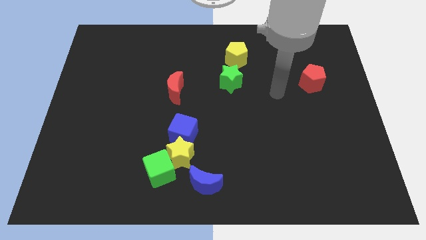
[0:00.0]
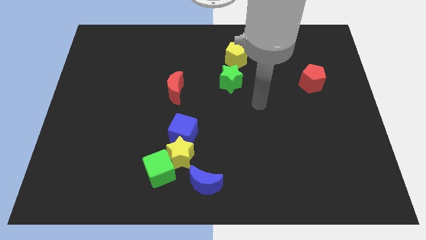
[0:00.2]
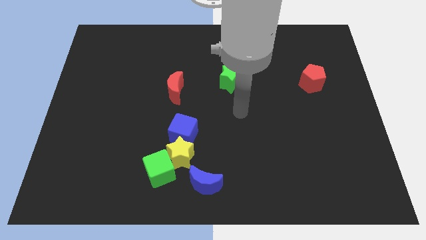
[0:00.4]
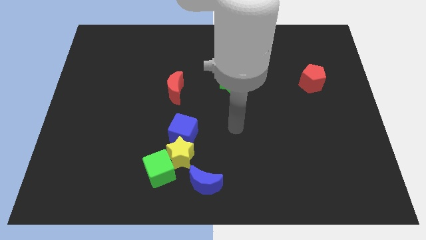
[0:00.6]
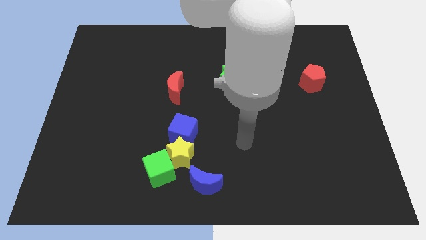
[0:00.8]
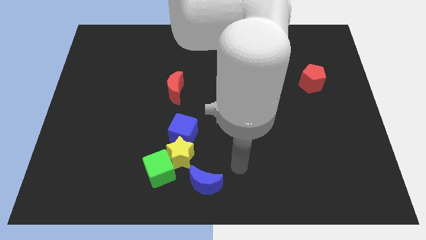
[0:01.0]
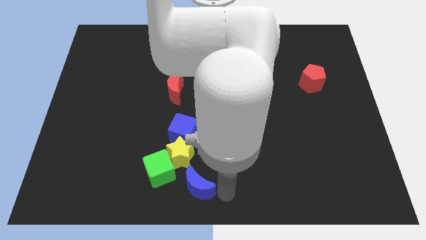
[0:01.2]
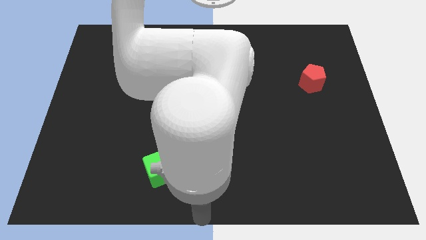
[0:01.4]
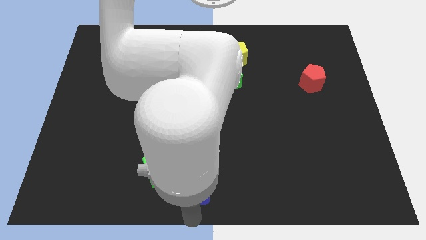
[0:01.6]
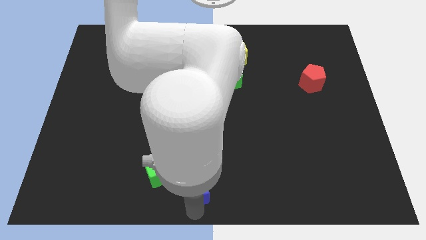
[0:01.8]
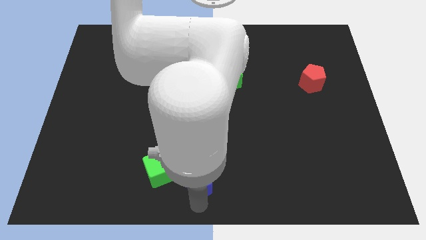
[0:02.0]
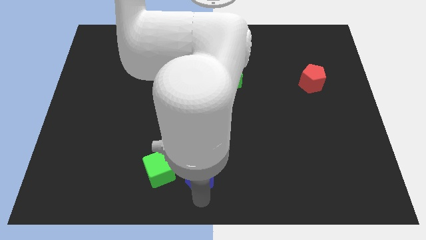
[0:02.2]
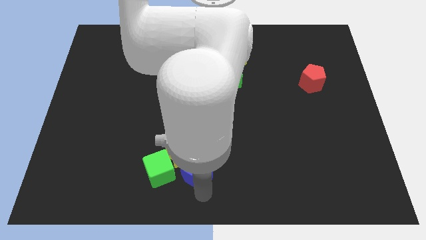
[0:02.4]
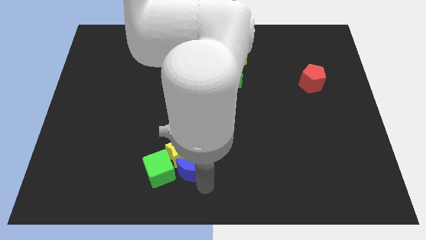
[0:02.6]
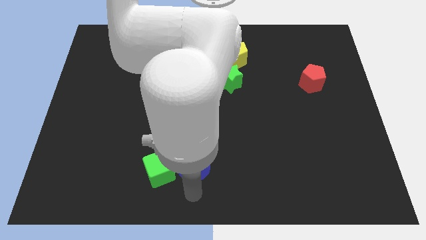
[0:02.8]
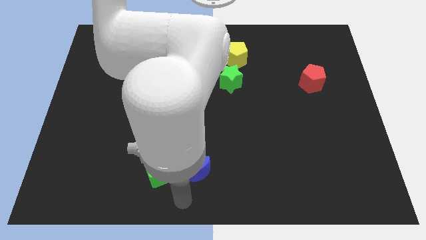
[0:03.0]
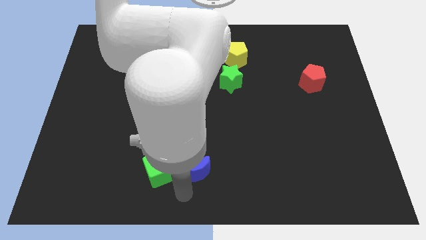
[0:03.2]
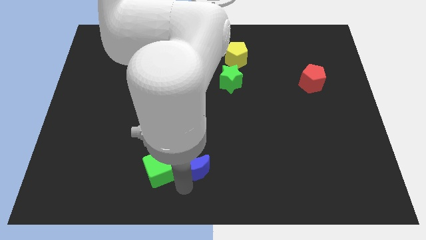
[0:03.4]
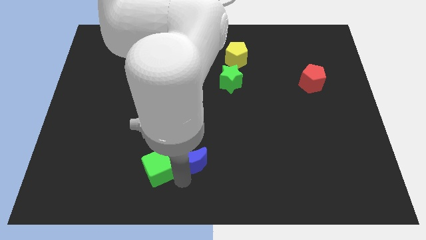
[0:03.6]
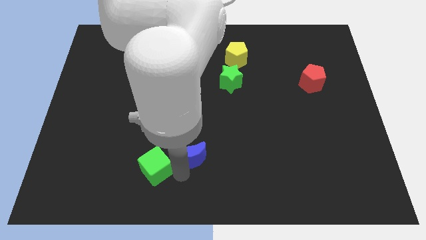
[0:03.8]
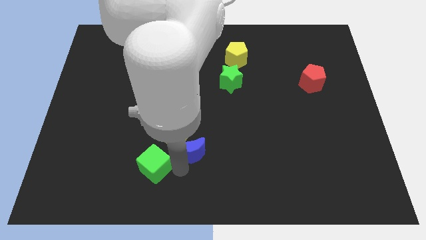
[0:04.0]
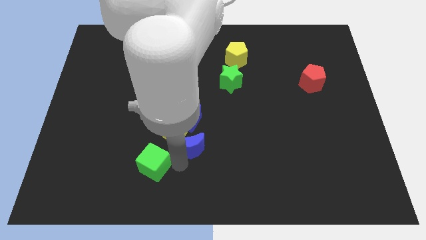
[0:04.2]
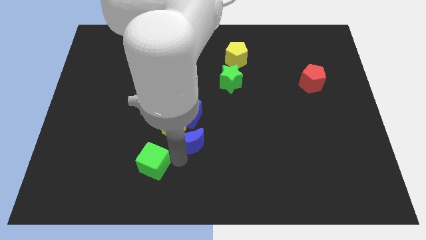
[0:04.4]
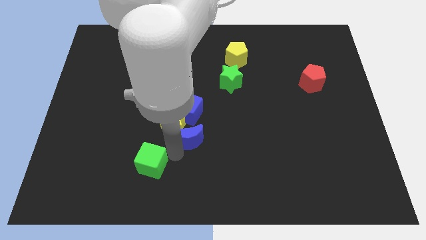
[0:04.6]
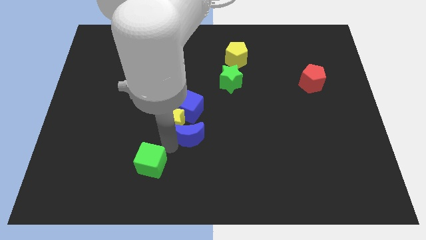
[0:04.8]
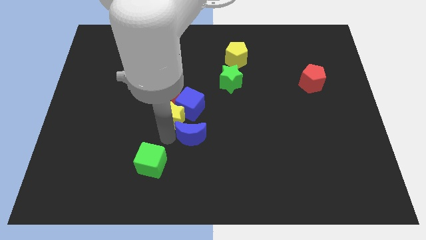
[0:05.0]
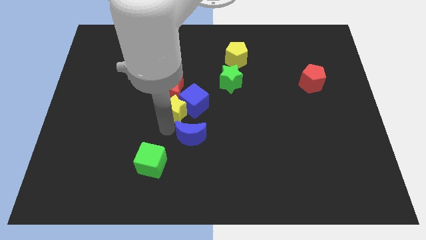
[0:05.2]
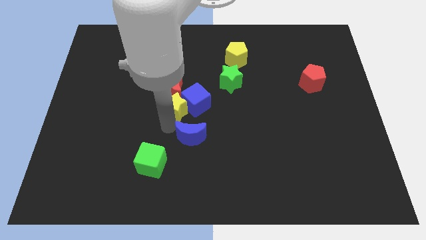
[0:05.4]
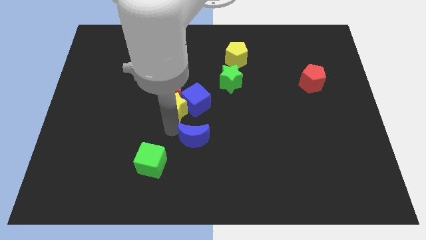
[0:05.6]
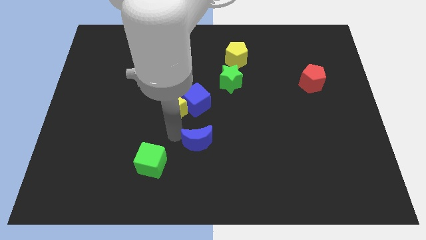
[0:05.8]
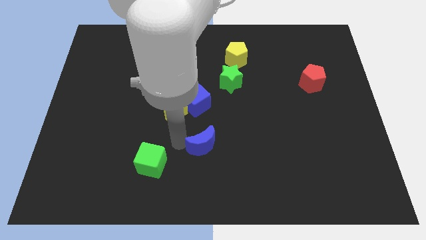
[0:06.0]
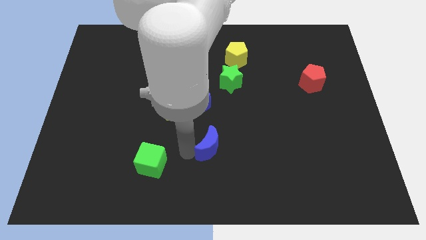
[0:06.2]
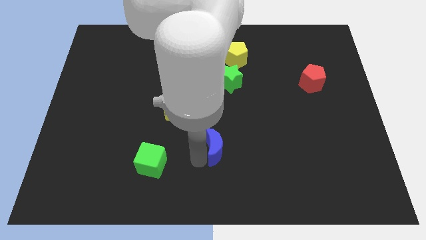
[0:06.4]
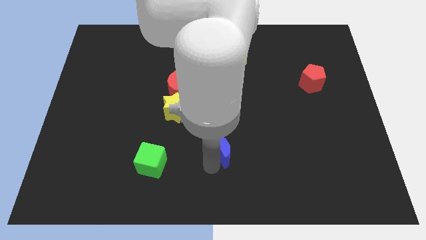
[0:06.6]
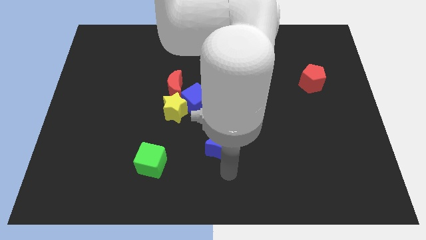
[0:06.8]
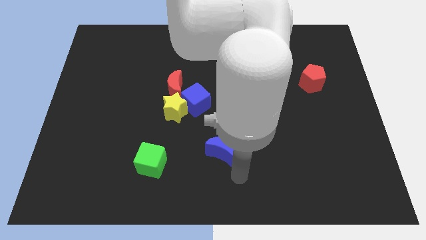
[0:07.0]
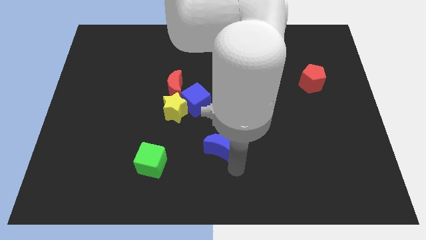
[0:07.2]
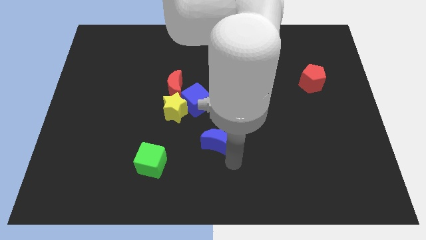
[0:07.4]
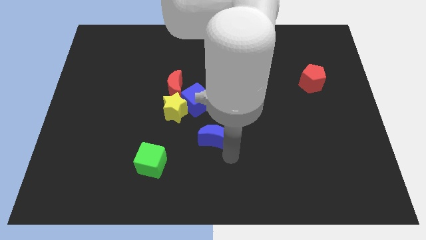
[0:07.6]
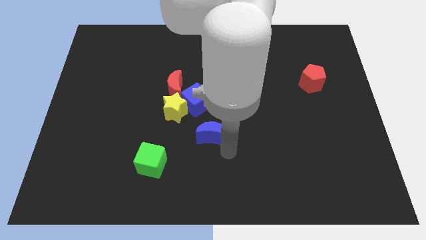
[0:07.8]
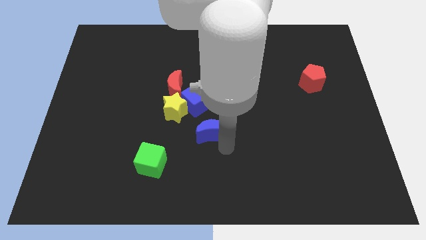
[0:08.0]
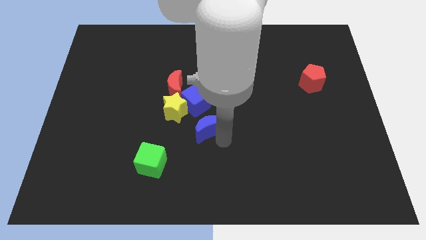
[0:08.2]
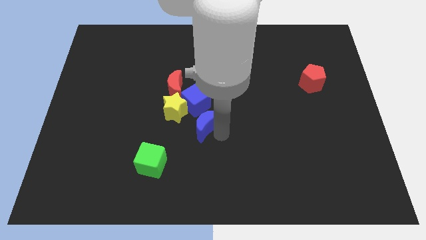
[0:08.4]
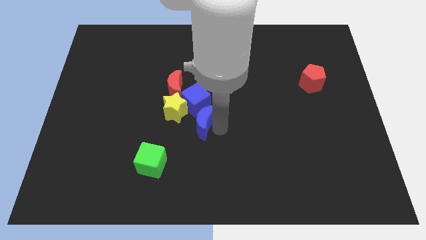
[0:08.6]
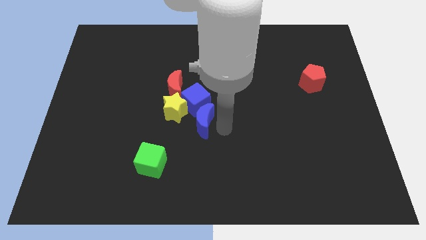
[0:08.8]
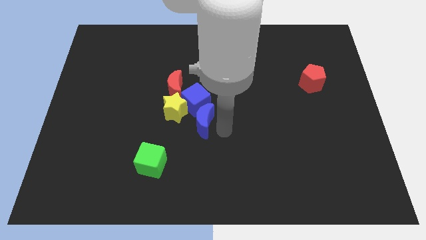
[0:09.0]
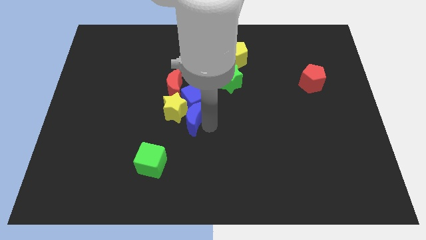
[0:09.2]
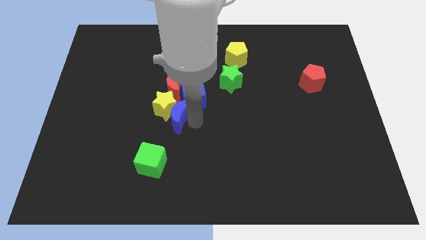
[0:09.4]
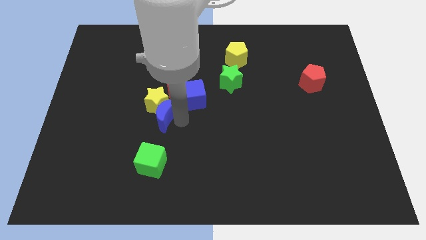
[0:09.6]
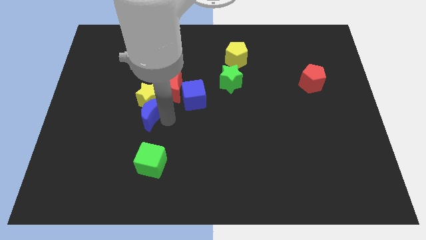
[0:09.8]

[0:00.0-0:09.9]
slide the blue moon up and to the left

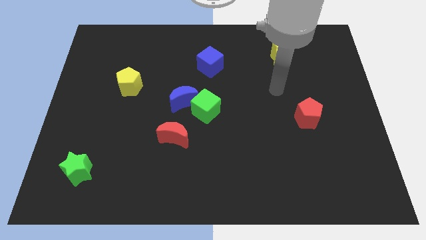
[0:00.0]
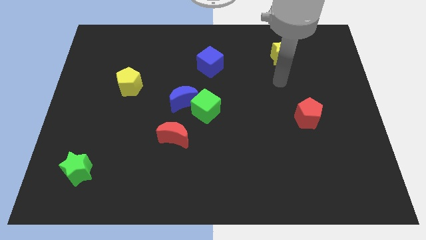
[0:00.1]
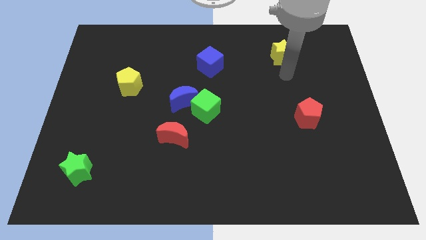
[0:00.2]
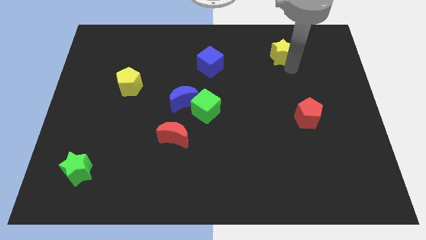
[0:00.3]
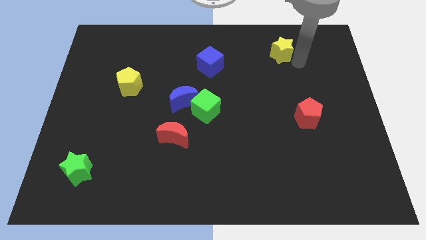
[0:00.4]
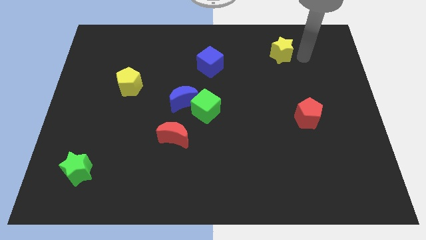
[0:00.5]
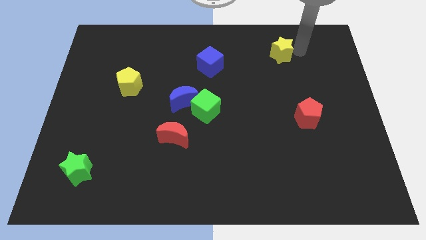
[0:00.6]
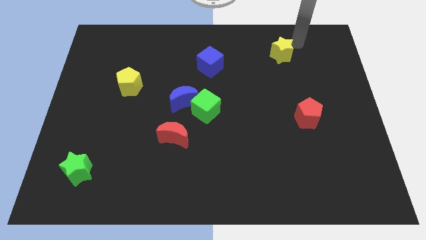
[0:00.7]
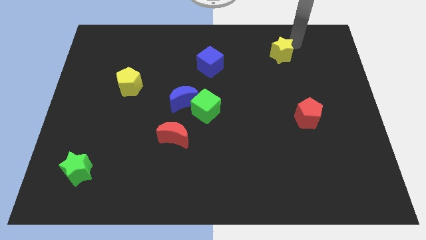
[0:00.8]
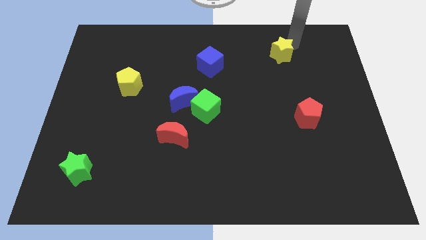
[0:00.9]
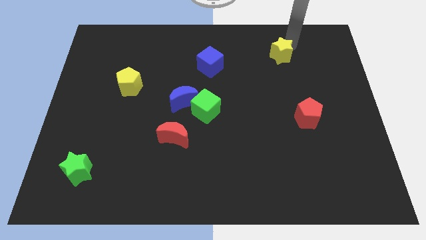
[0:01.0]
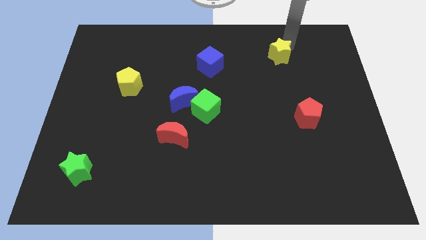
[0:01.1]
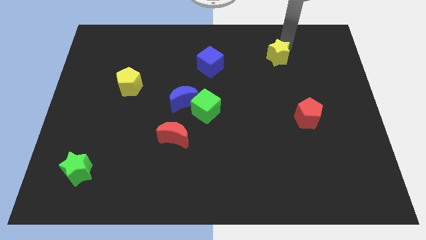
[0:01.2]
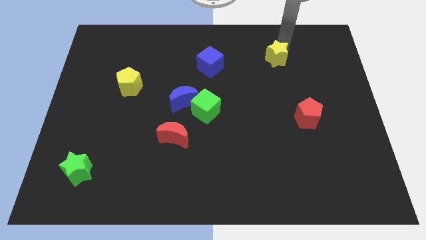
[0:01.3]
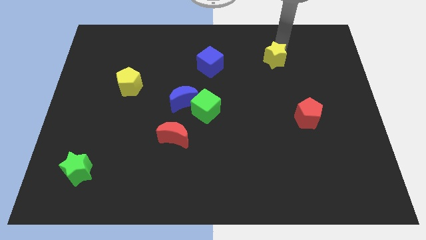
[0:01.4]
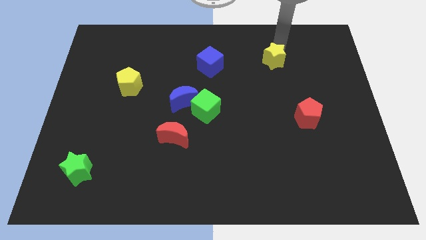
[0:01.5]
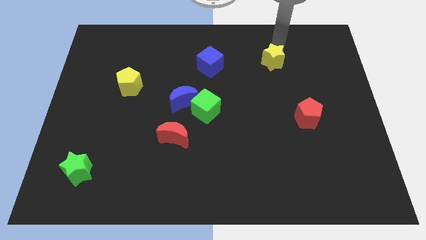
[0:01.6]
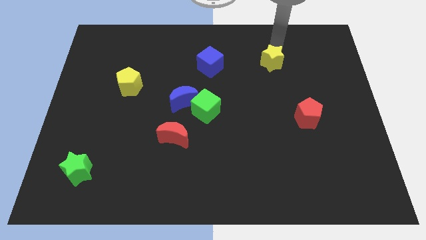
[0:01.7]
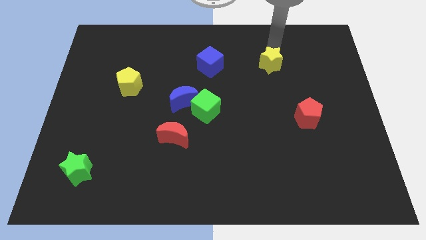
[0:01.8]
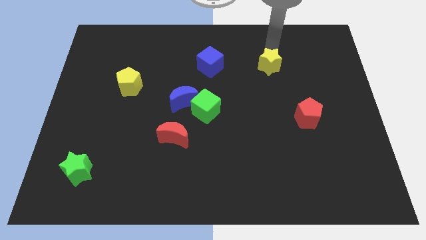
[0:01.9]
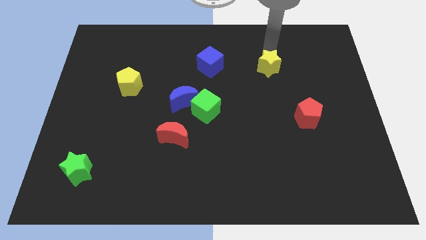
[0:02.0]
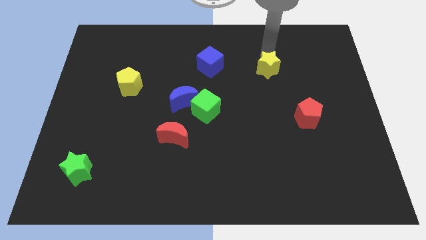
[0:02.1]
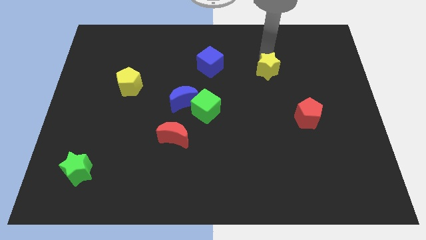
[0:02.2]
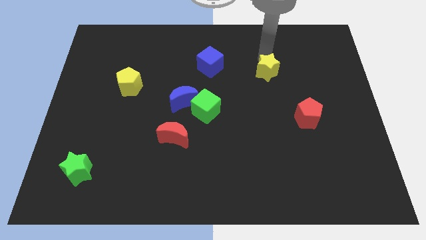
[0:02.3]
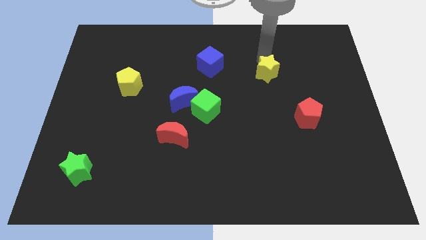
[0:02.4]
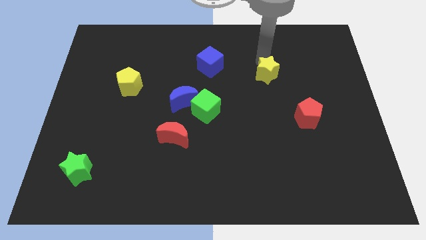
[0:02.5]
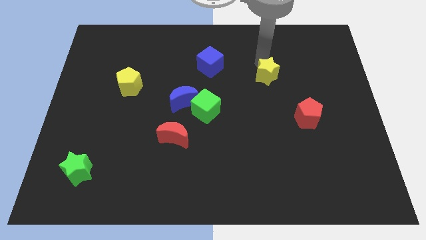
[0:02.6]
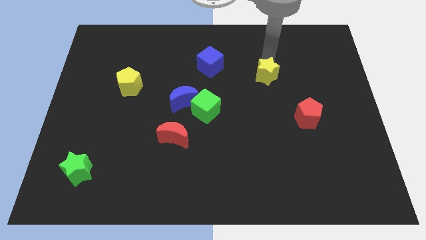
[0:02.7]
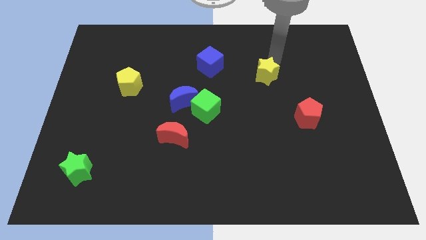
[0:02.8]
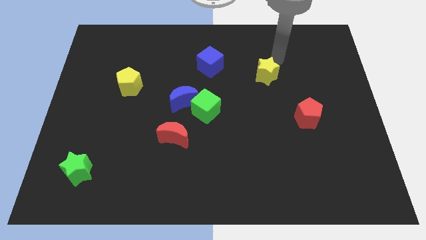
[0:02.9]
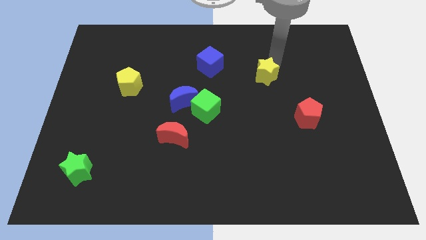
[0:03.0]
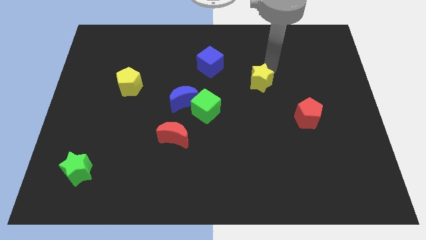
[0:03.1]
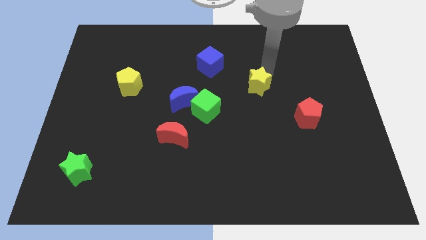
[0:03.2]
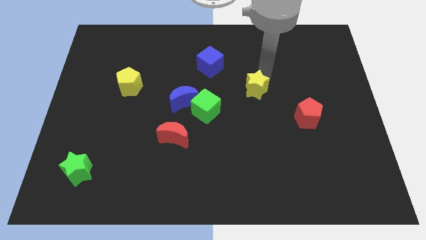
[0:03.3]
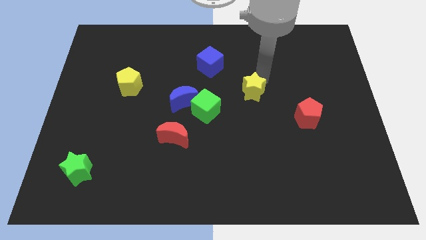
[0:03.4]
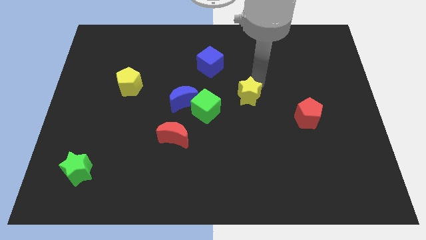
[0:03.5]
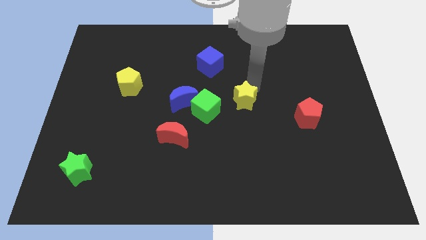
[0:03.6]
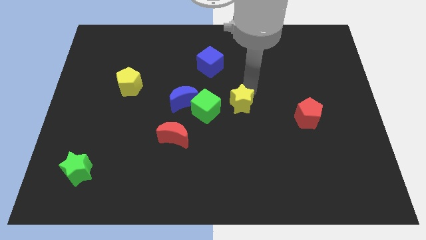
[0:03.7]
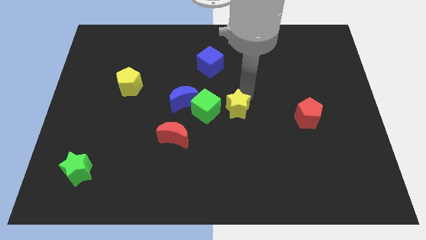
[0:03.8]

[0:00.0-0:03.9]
slide the yellow star down and to the left
